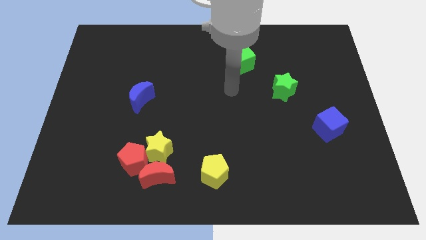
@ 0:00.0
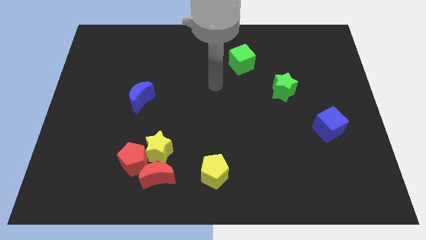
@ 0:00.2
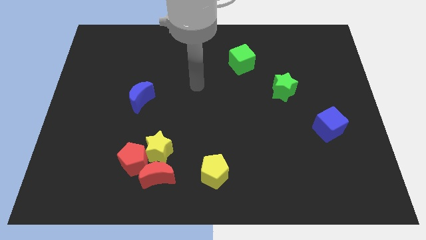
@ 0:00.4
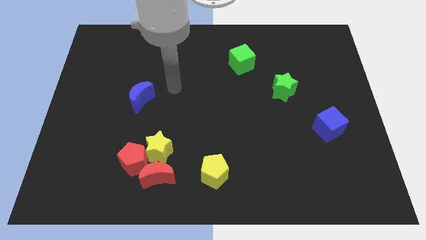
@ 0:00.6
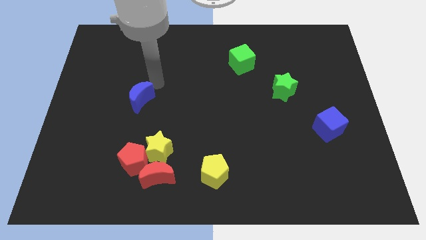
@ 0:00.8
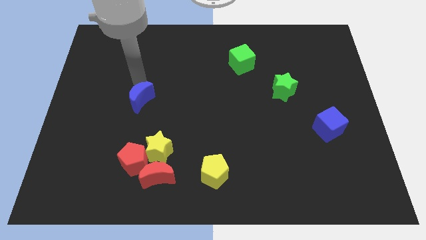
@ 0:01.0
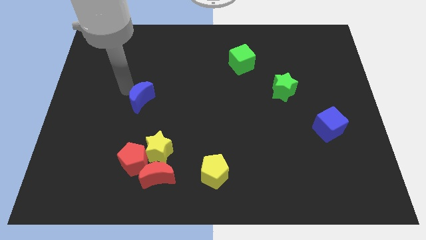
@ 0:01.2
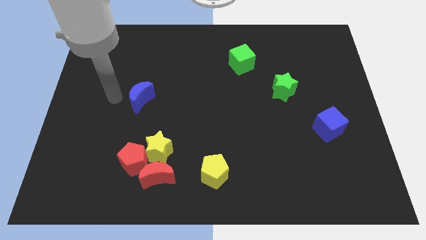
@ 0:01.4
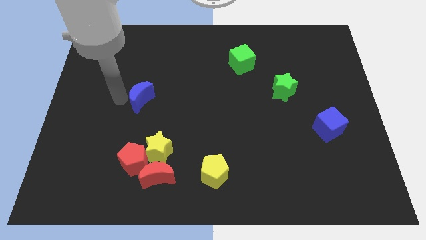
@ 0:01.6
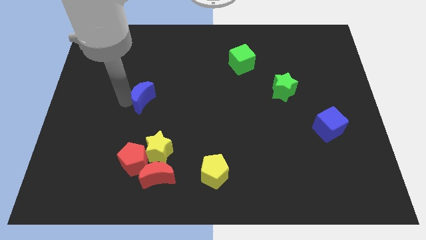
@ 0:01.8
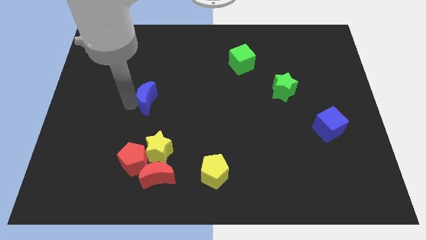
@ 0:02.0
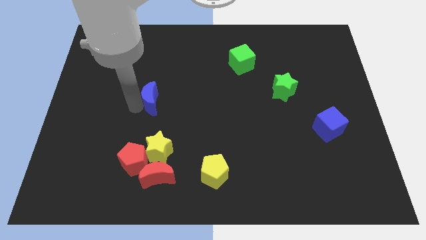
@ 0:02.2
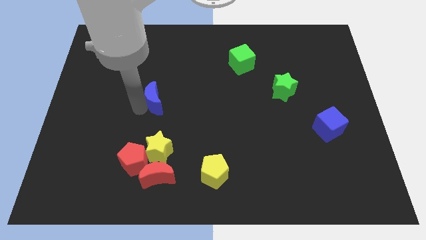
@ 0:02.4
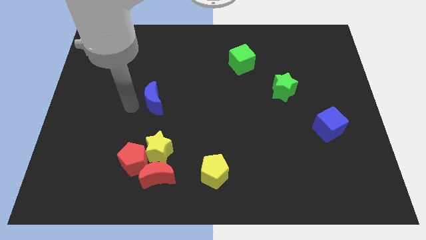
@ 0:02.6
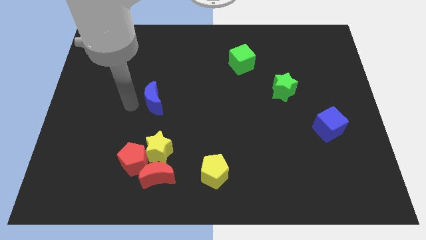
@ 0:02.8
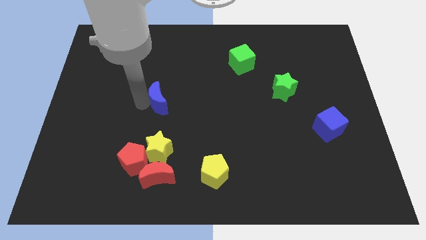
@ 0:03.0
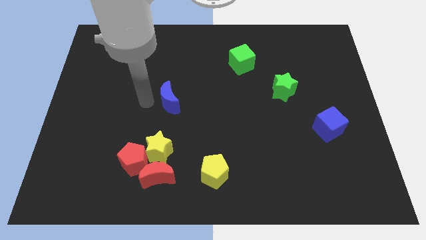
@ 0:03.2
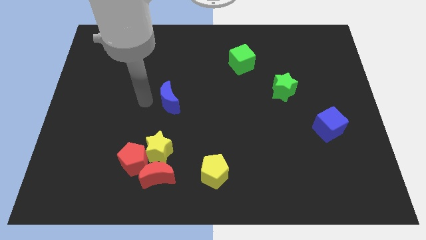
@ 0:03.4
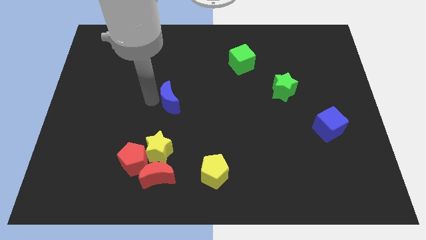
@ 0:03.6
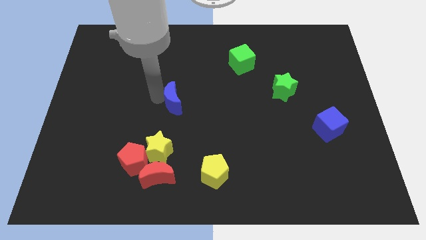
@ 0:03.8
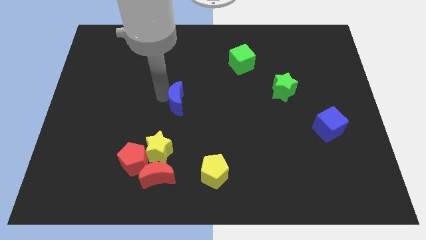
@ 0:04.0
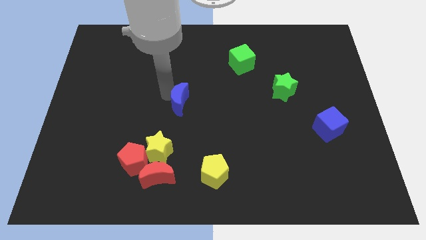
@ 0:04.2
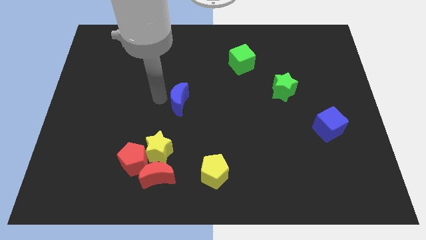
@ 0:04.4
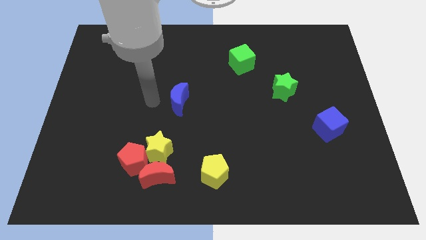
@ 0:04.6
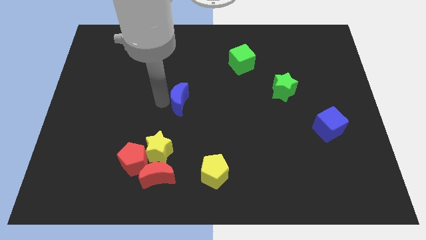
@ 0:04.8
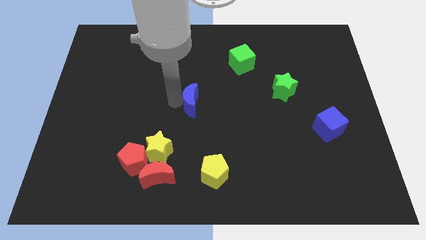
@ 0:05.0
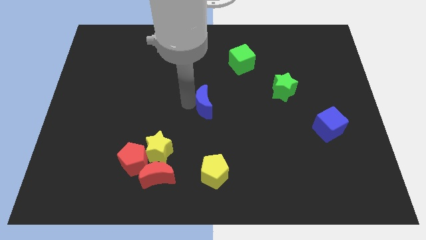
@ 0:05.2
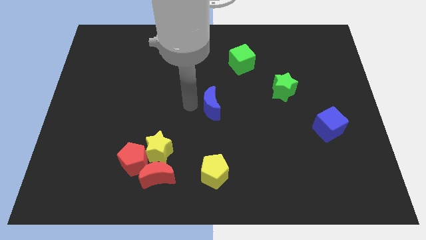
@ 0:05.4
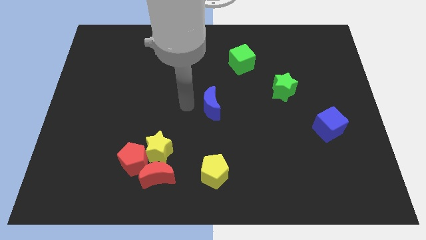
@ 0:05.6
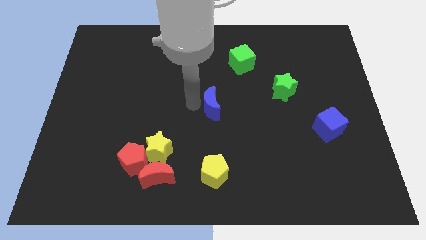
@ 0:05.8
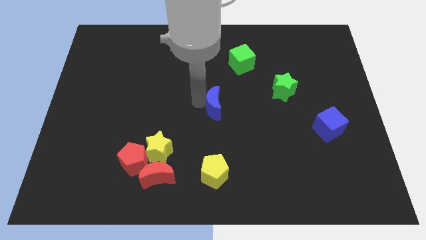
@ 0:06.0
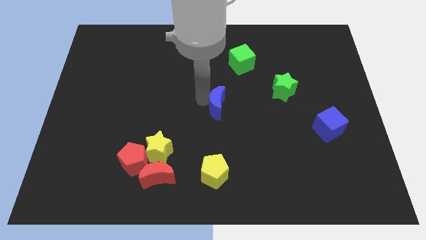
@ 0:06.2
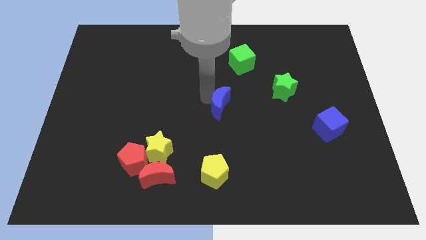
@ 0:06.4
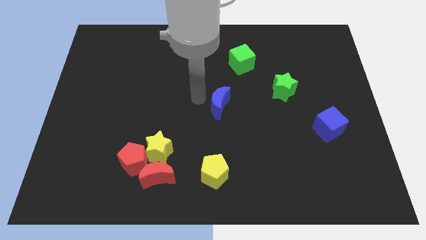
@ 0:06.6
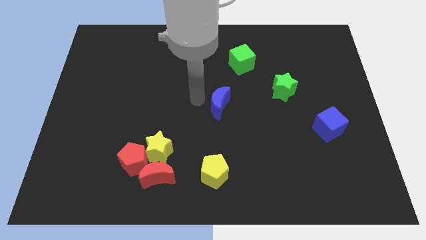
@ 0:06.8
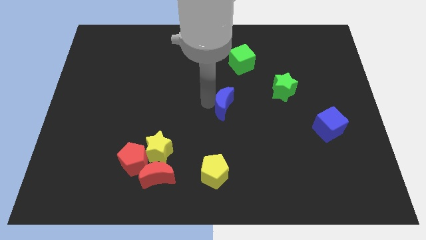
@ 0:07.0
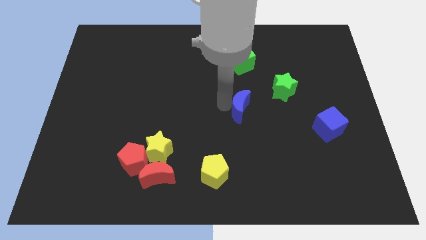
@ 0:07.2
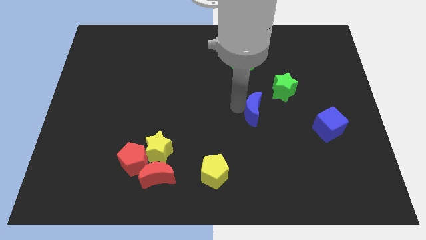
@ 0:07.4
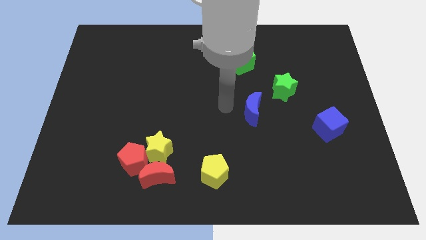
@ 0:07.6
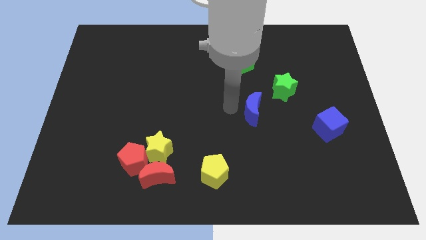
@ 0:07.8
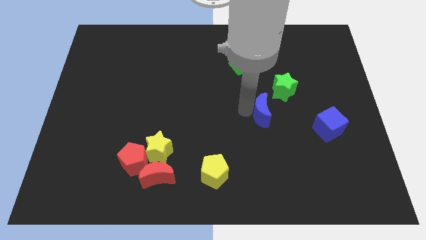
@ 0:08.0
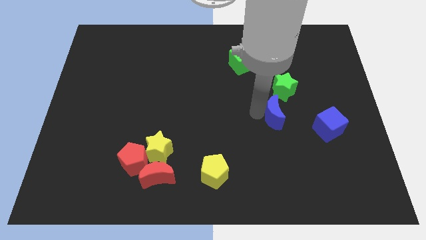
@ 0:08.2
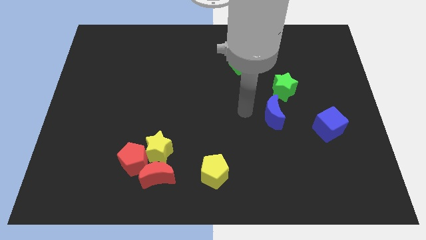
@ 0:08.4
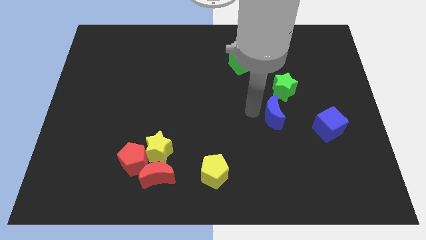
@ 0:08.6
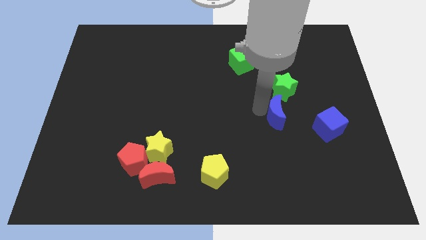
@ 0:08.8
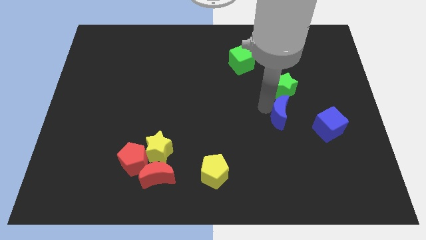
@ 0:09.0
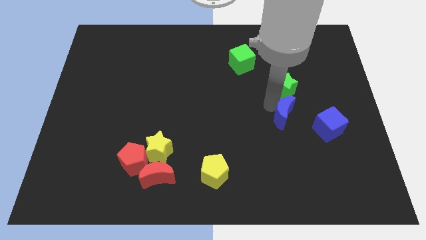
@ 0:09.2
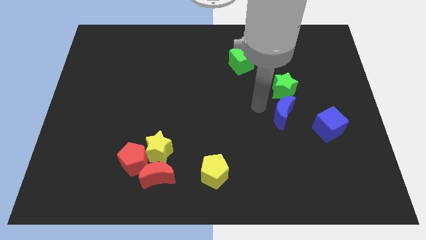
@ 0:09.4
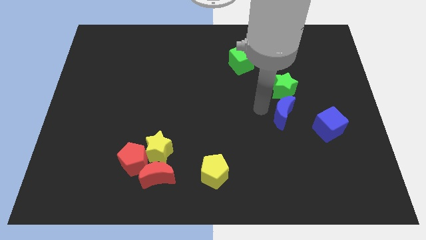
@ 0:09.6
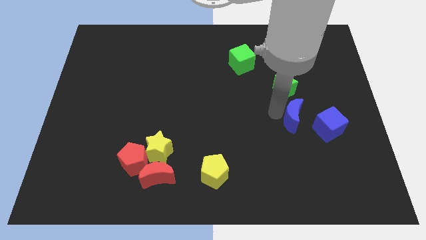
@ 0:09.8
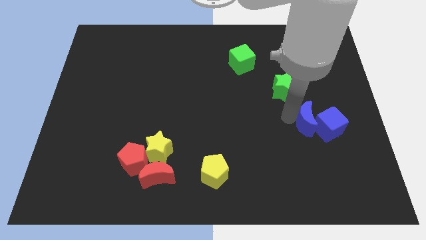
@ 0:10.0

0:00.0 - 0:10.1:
put the blue moon towards the blue cube

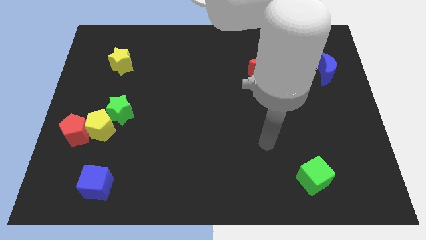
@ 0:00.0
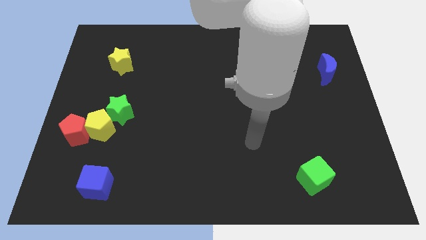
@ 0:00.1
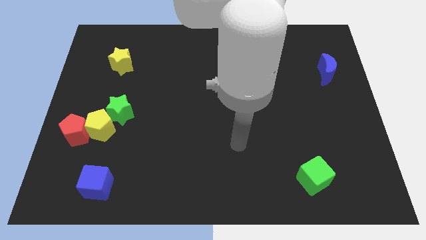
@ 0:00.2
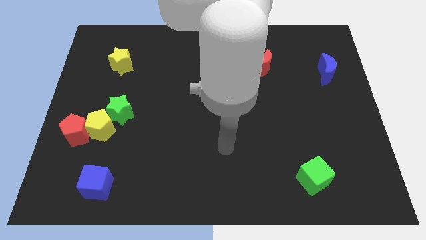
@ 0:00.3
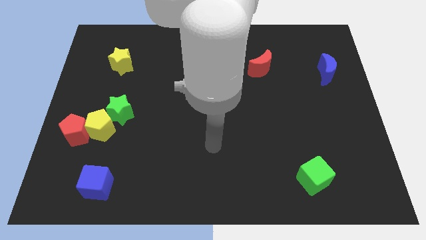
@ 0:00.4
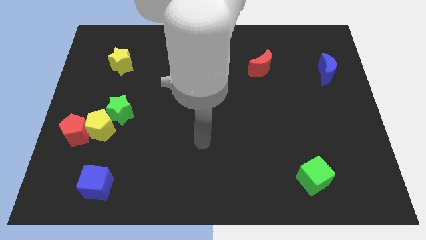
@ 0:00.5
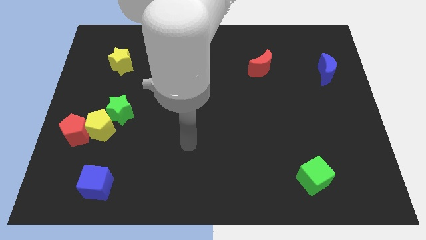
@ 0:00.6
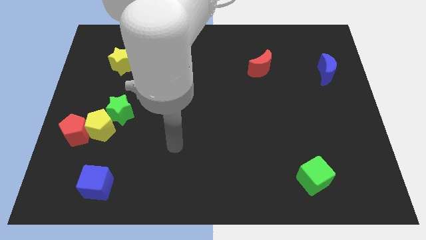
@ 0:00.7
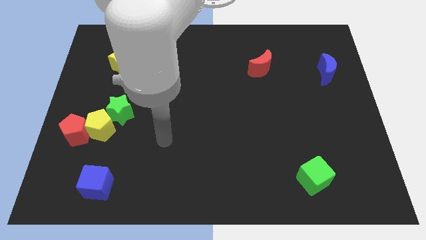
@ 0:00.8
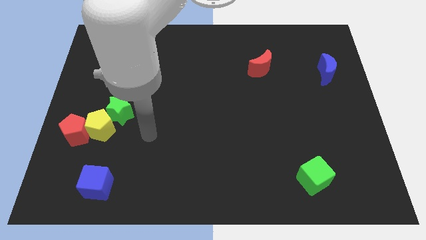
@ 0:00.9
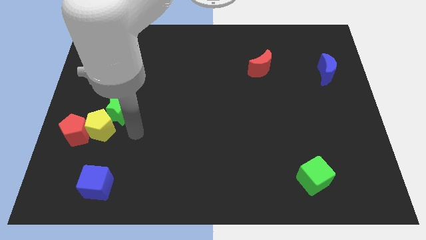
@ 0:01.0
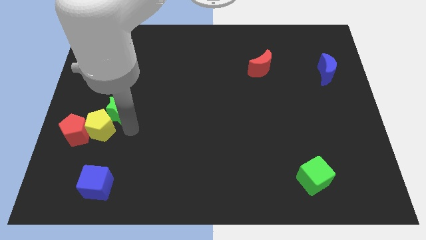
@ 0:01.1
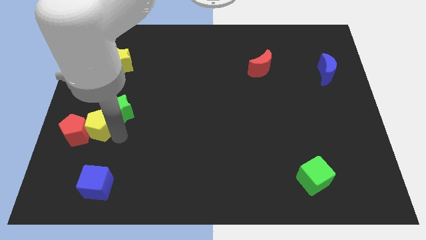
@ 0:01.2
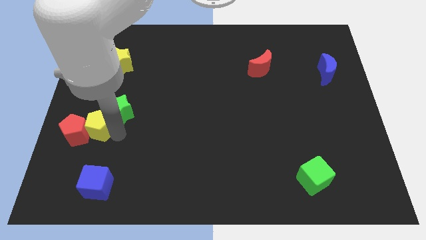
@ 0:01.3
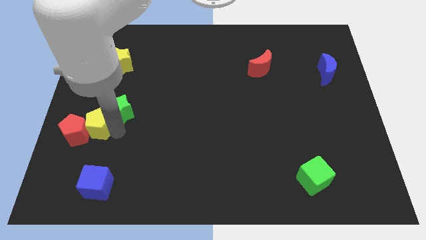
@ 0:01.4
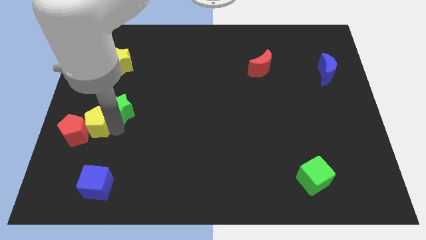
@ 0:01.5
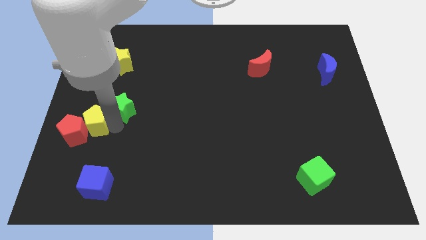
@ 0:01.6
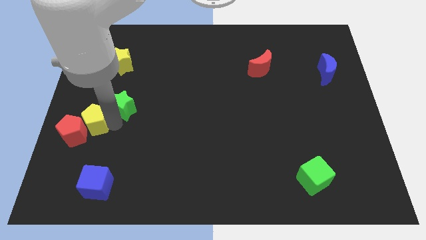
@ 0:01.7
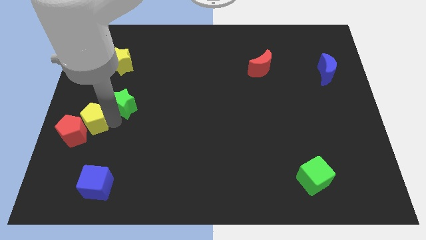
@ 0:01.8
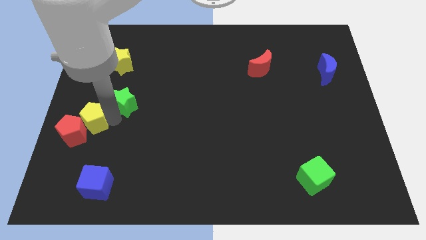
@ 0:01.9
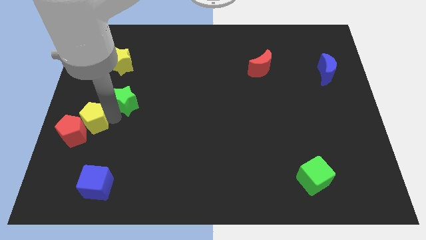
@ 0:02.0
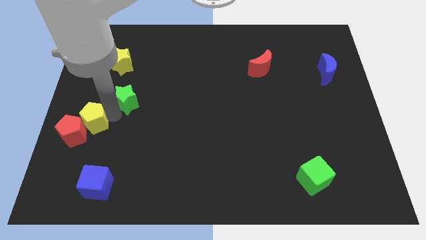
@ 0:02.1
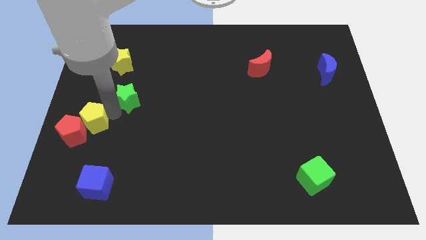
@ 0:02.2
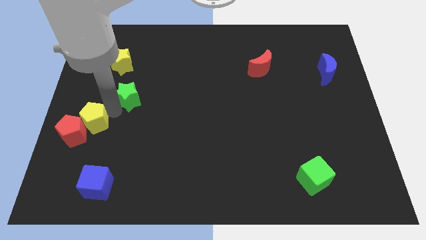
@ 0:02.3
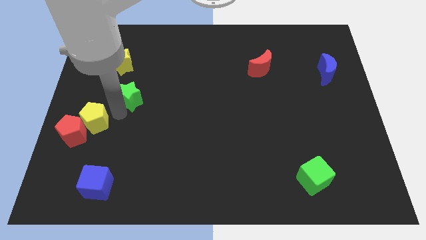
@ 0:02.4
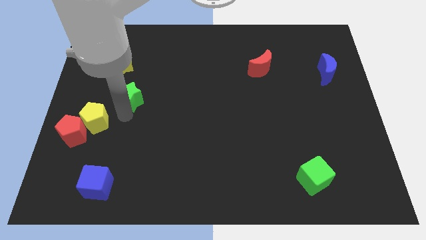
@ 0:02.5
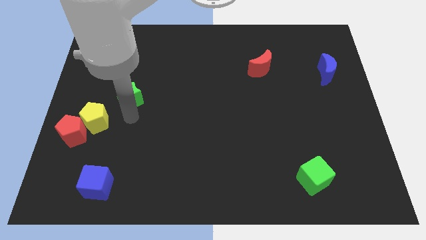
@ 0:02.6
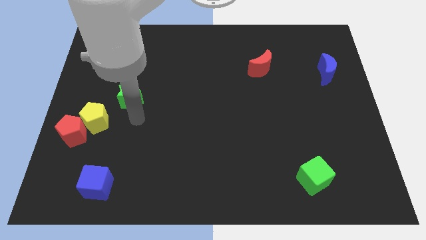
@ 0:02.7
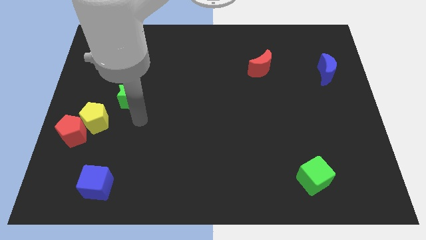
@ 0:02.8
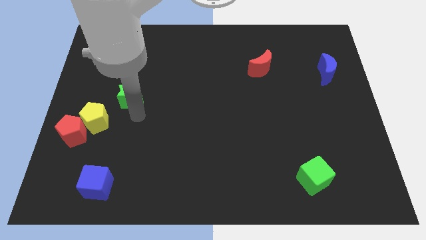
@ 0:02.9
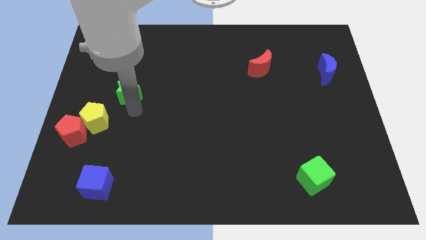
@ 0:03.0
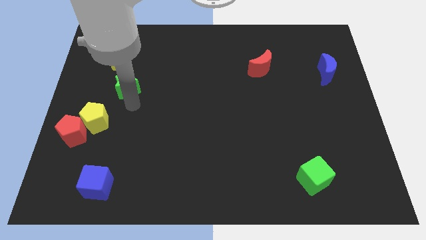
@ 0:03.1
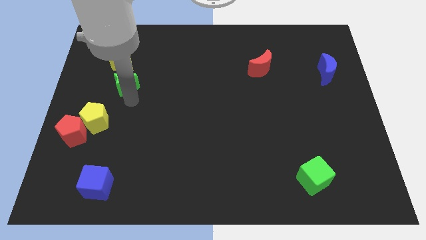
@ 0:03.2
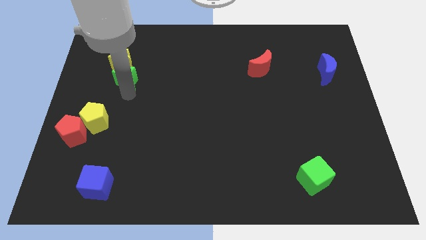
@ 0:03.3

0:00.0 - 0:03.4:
move the green star to the yellow star
